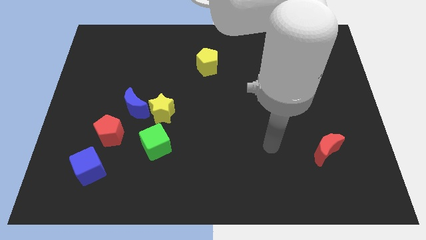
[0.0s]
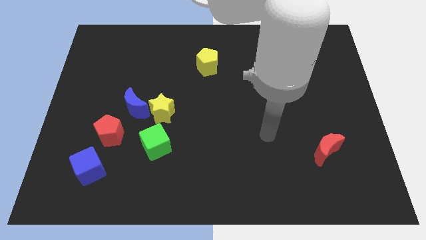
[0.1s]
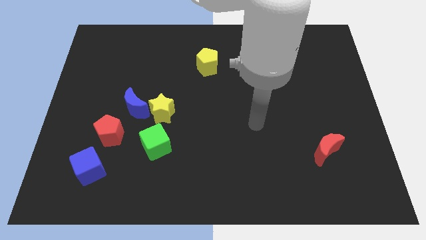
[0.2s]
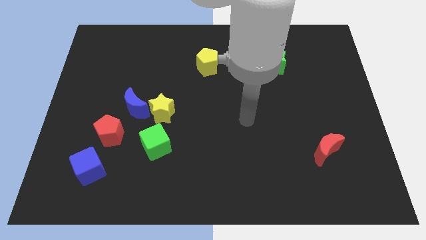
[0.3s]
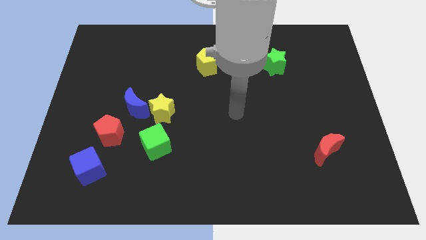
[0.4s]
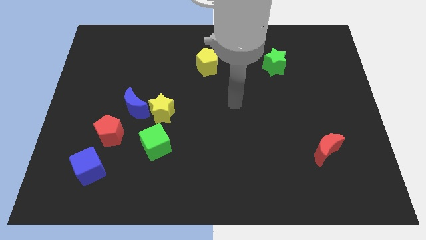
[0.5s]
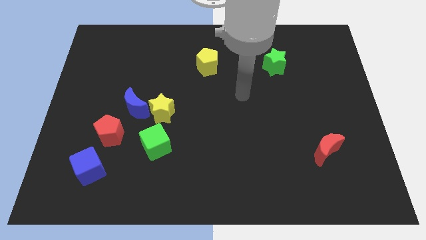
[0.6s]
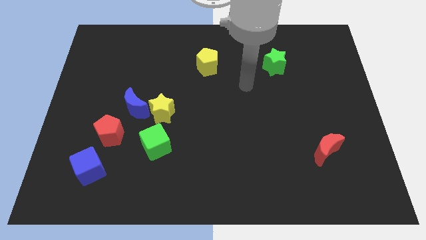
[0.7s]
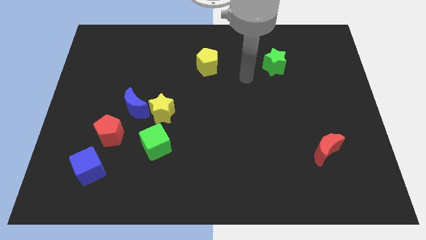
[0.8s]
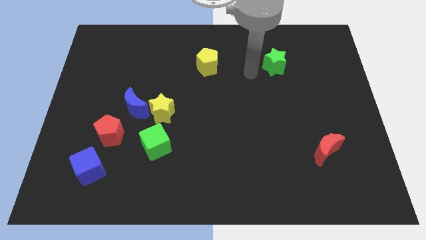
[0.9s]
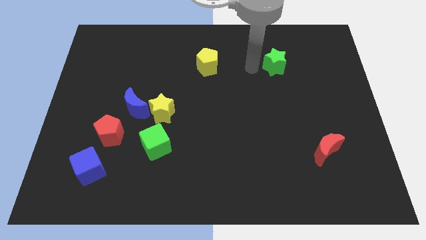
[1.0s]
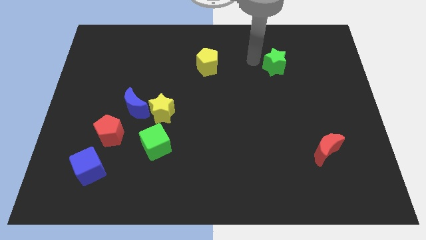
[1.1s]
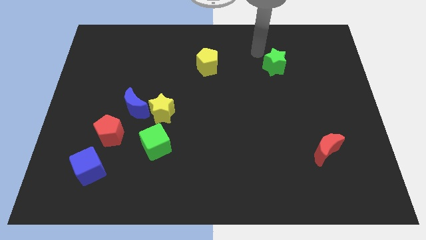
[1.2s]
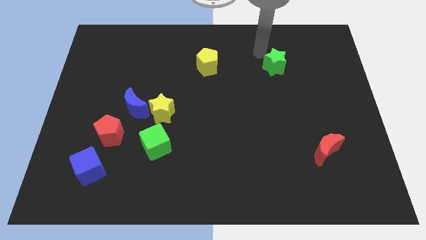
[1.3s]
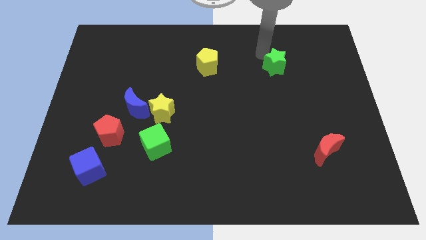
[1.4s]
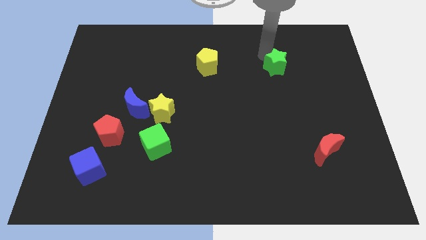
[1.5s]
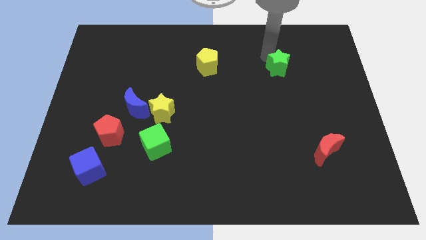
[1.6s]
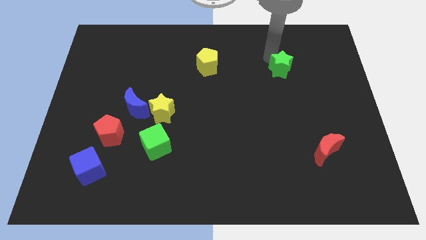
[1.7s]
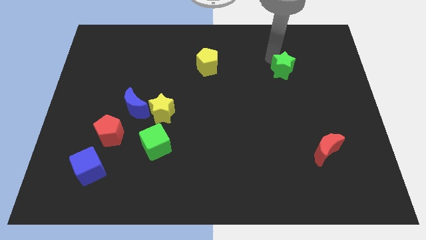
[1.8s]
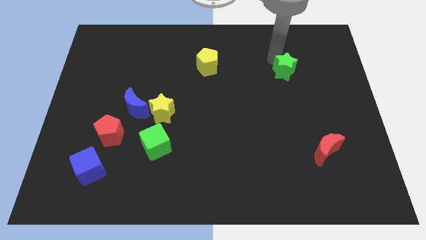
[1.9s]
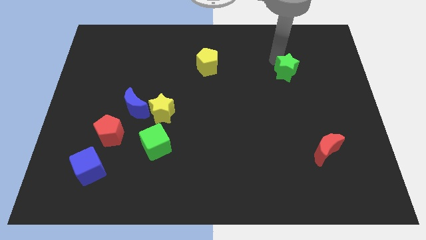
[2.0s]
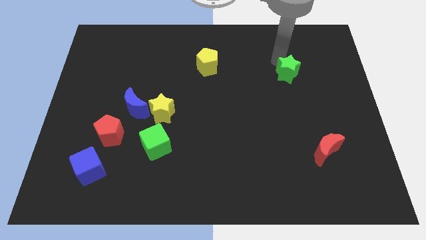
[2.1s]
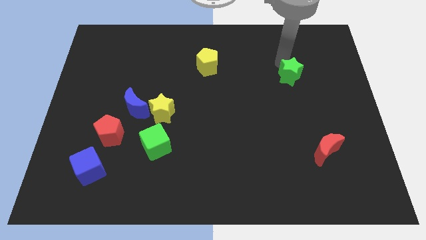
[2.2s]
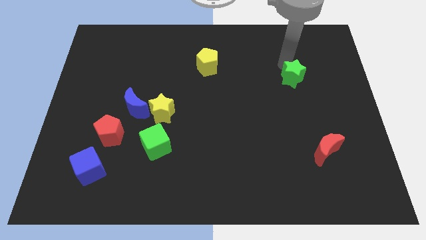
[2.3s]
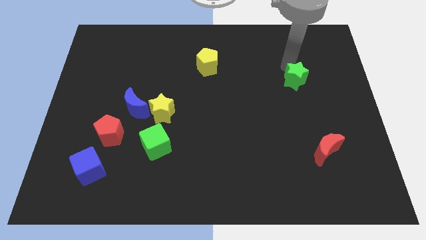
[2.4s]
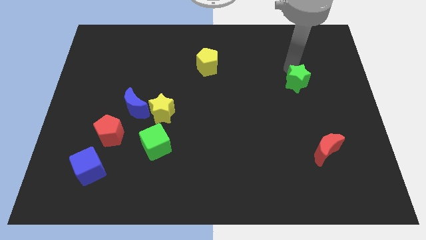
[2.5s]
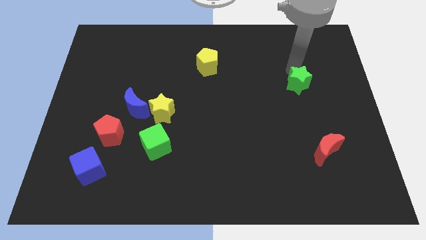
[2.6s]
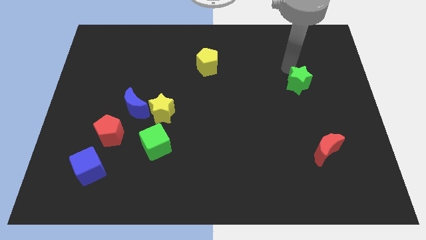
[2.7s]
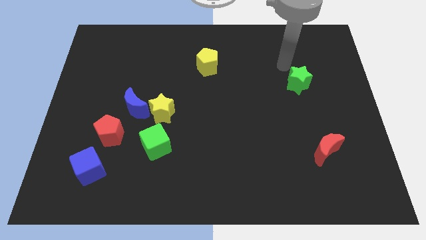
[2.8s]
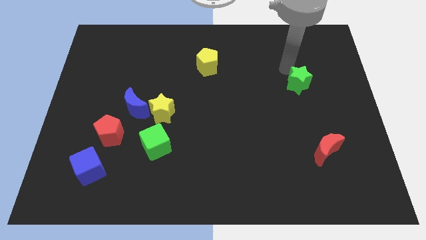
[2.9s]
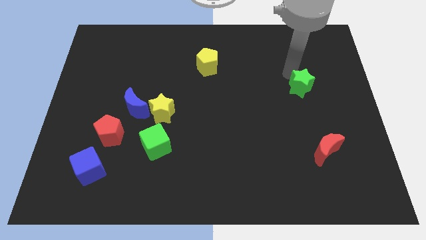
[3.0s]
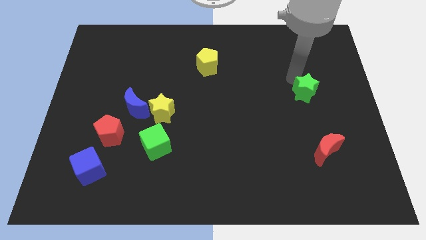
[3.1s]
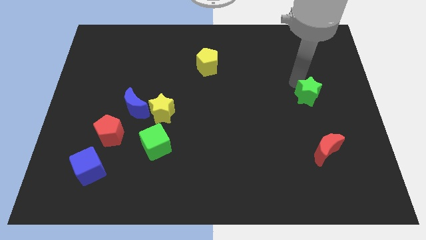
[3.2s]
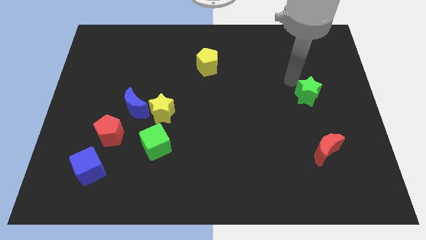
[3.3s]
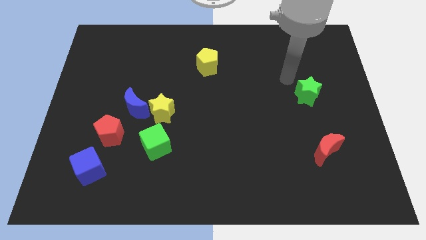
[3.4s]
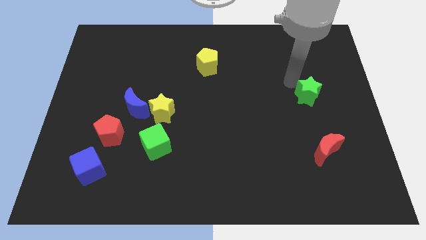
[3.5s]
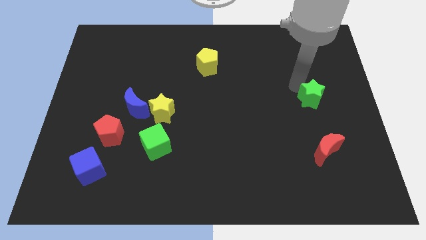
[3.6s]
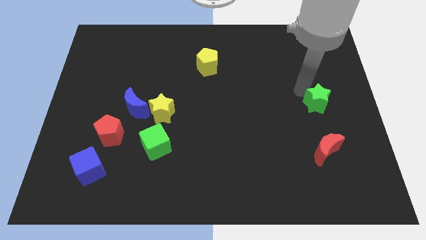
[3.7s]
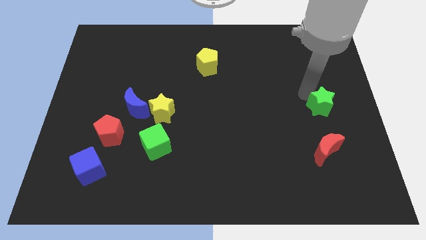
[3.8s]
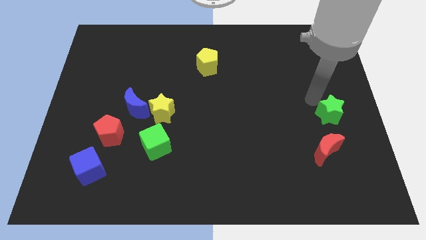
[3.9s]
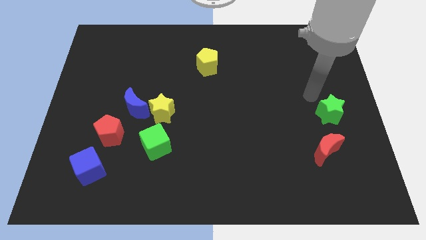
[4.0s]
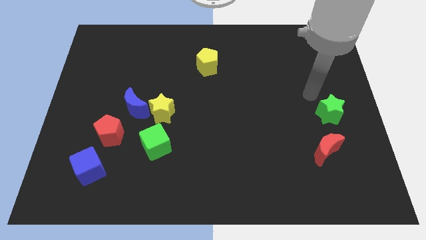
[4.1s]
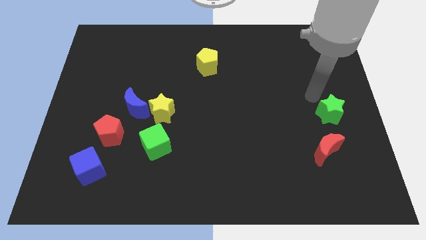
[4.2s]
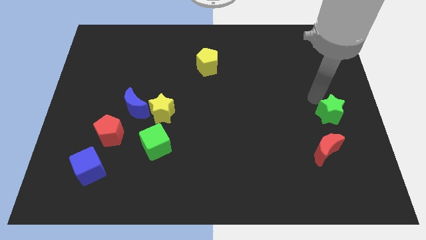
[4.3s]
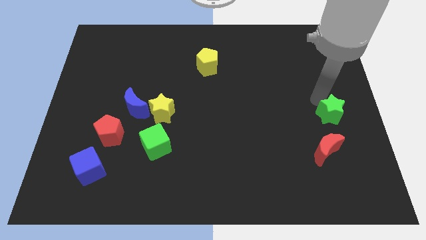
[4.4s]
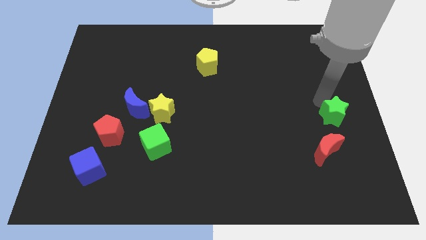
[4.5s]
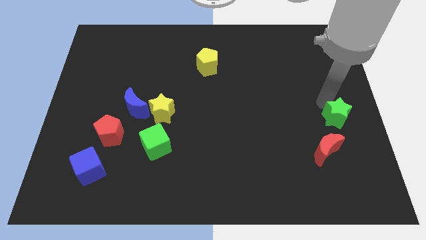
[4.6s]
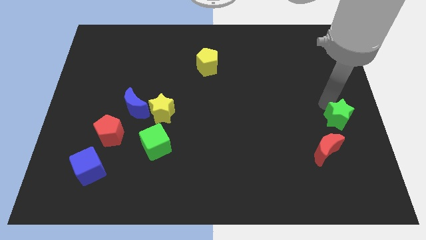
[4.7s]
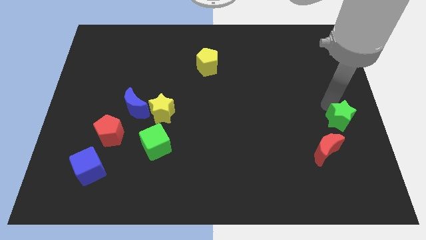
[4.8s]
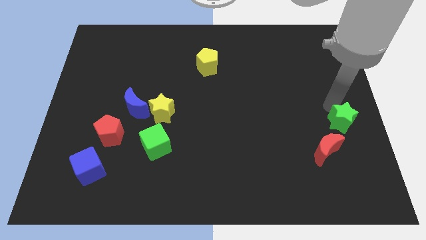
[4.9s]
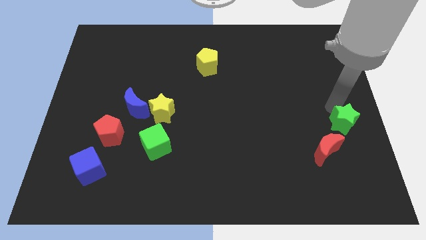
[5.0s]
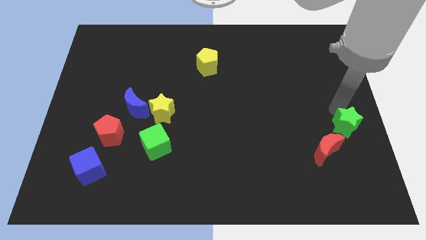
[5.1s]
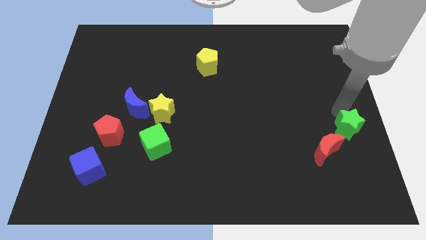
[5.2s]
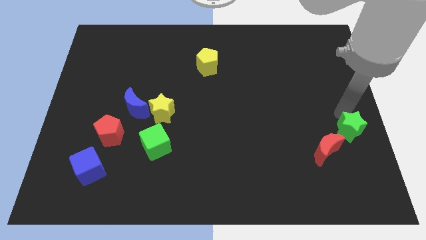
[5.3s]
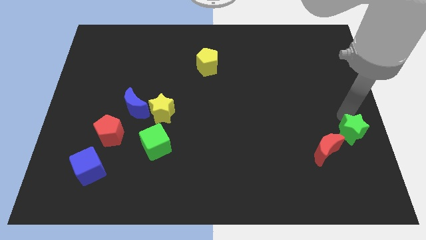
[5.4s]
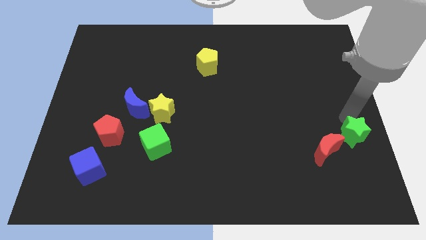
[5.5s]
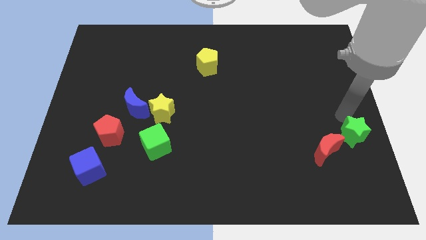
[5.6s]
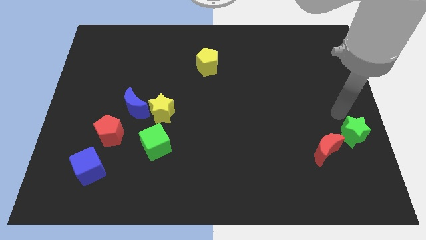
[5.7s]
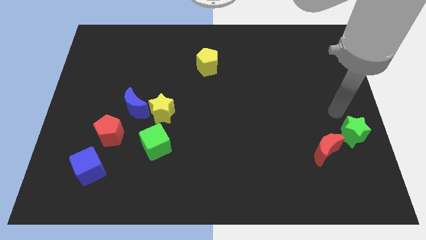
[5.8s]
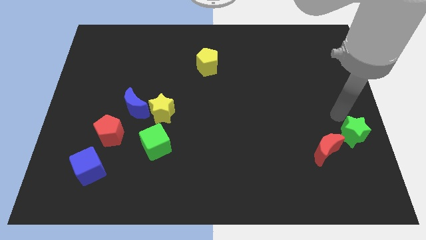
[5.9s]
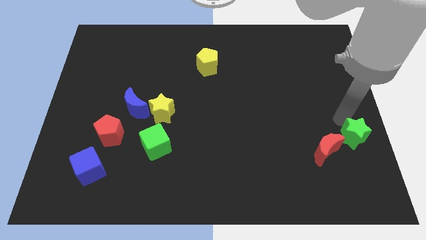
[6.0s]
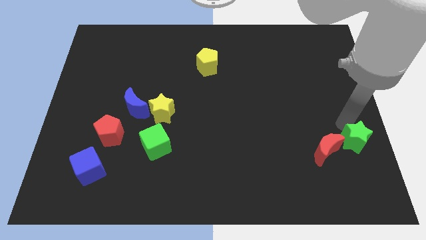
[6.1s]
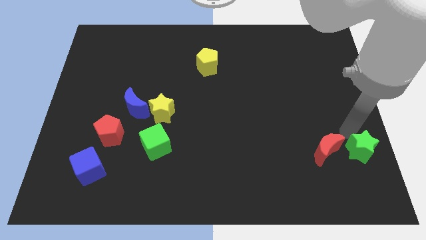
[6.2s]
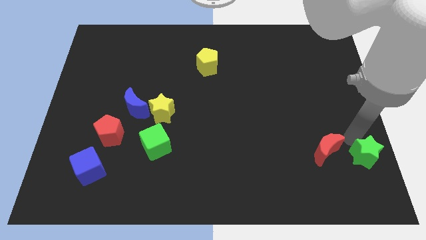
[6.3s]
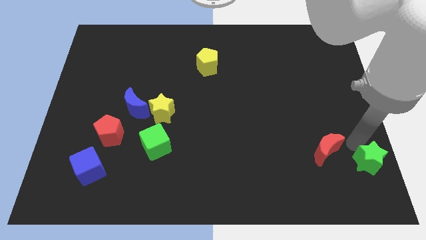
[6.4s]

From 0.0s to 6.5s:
push the green star to the bottom right corner

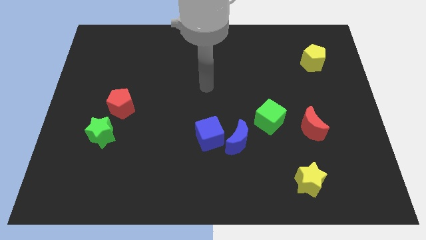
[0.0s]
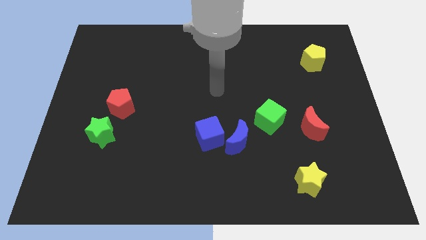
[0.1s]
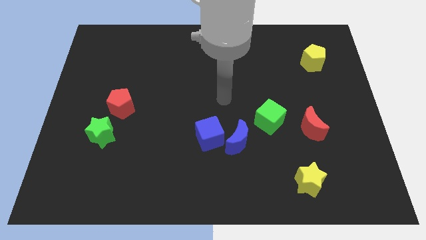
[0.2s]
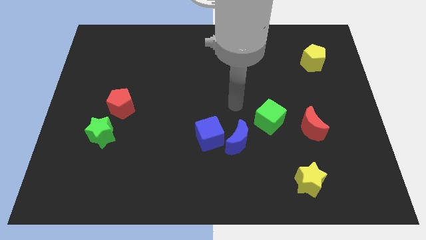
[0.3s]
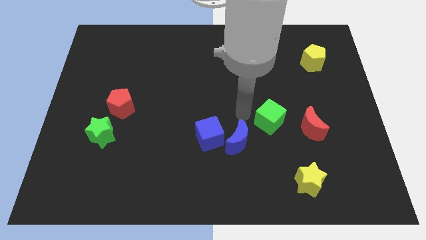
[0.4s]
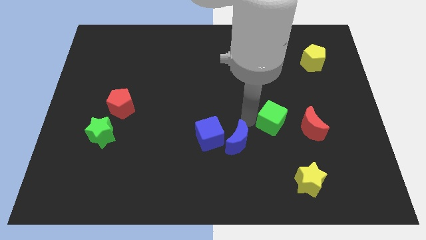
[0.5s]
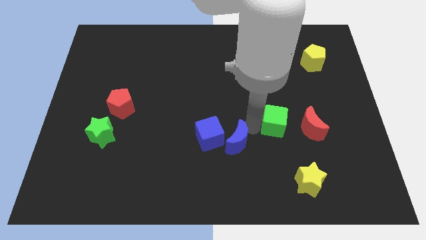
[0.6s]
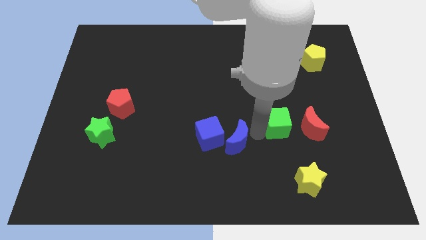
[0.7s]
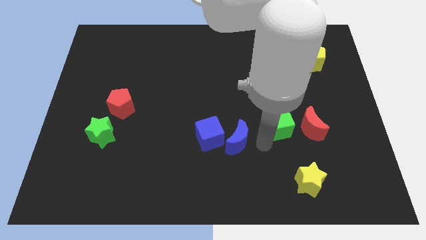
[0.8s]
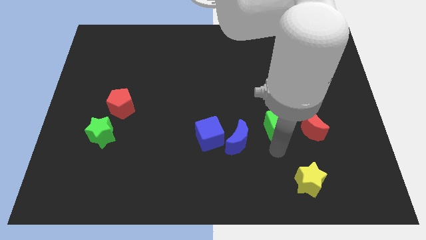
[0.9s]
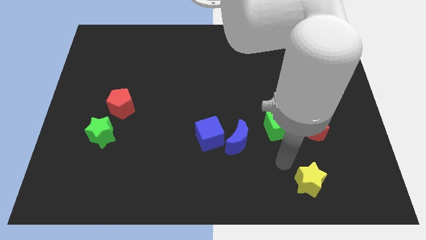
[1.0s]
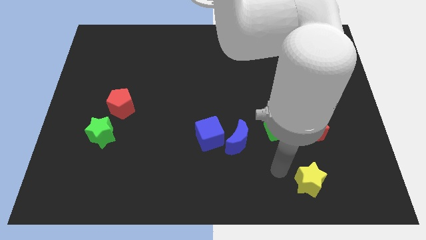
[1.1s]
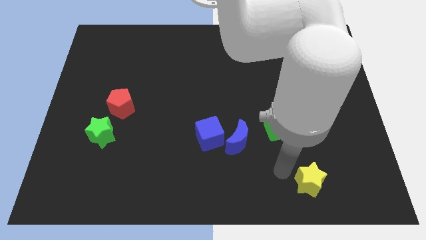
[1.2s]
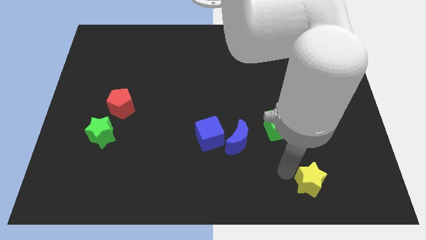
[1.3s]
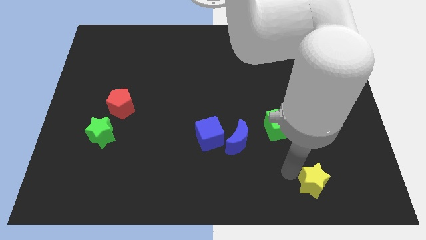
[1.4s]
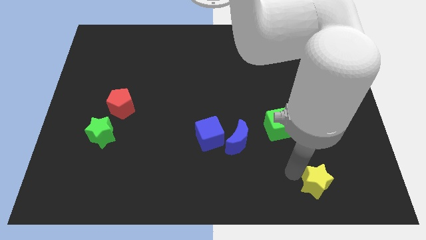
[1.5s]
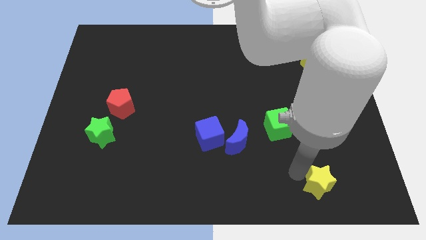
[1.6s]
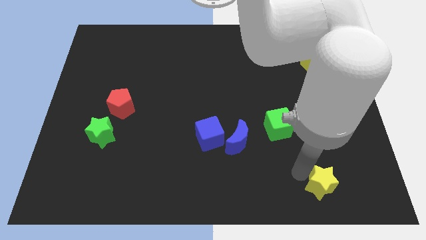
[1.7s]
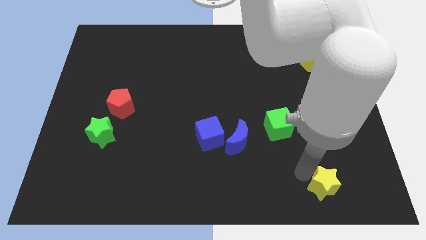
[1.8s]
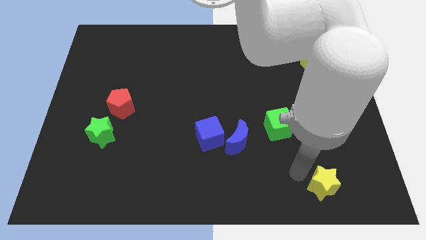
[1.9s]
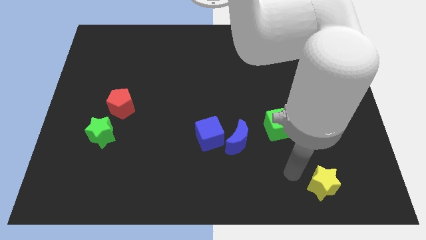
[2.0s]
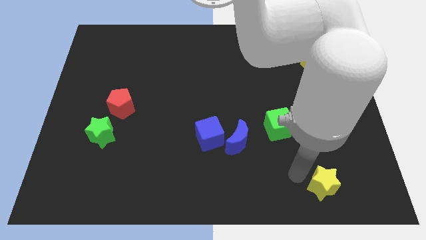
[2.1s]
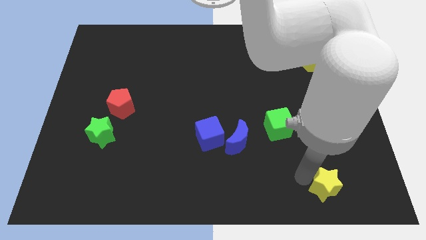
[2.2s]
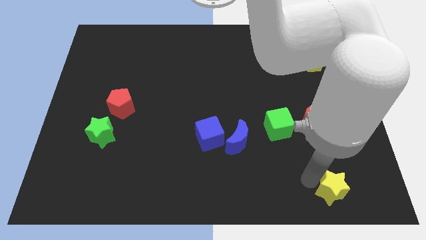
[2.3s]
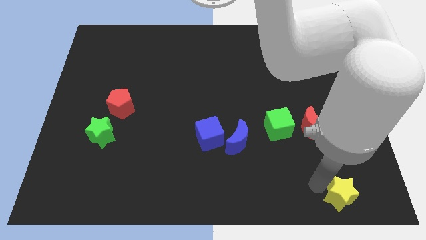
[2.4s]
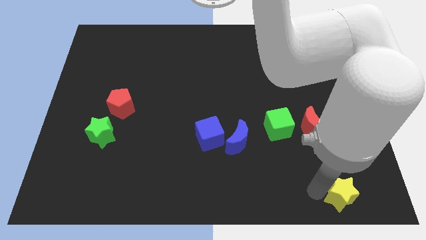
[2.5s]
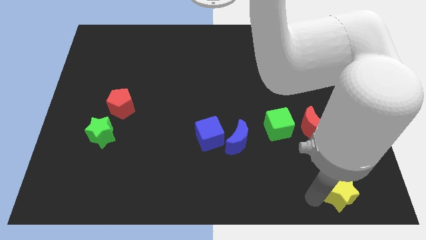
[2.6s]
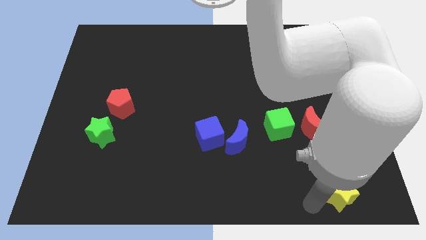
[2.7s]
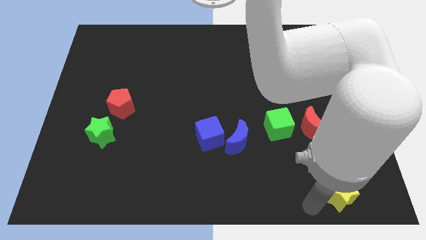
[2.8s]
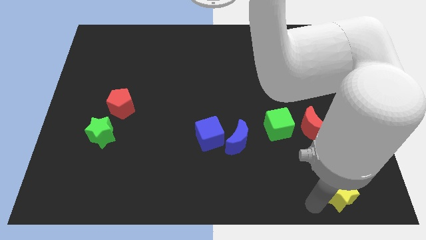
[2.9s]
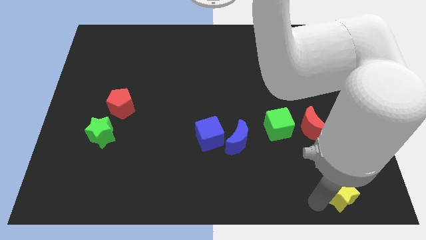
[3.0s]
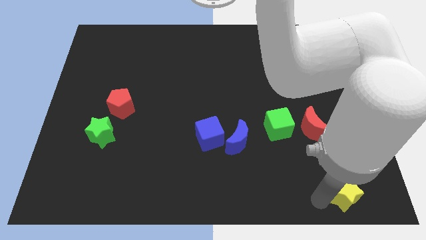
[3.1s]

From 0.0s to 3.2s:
slide the yellow star to the bottom right of the board
